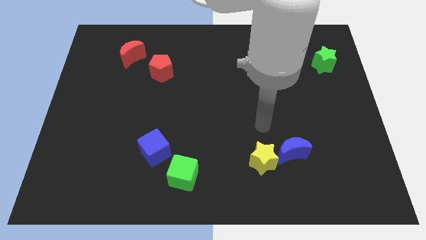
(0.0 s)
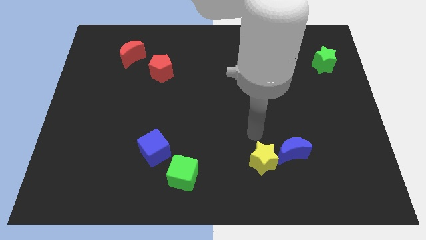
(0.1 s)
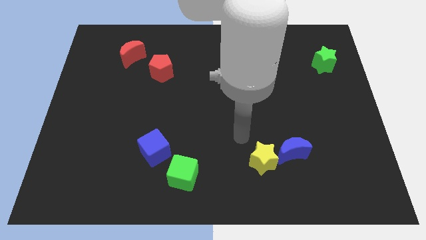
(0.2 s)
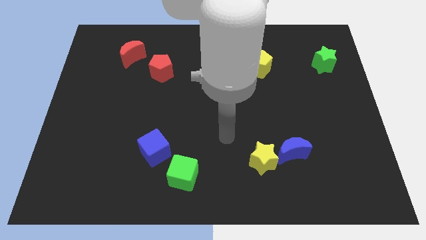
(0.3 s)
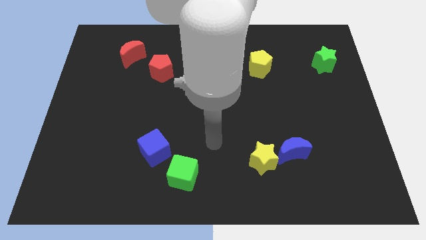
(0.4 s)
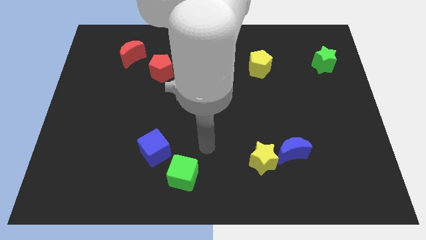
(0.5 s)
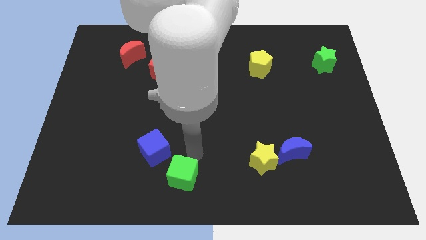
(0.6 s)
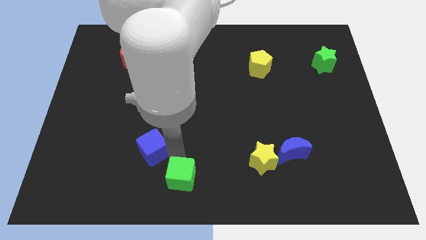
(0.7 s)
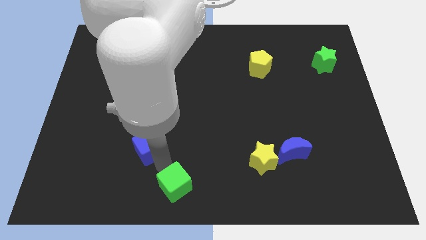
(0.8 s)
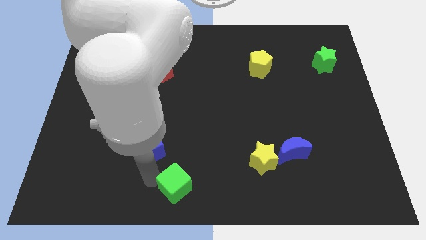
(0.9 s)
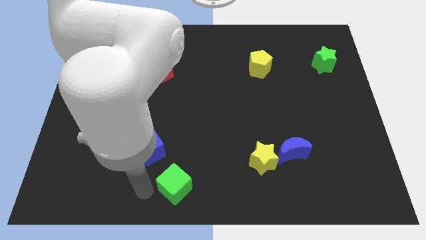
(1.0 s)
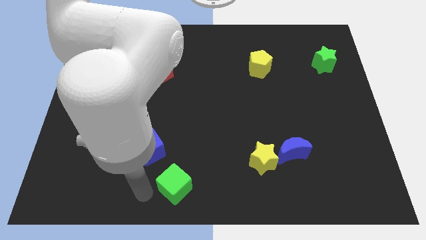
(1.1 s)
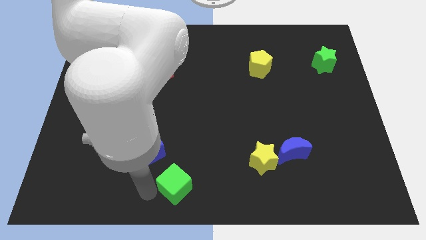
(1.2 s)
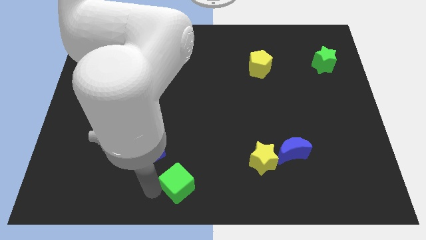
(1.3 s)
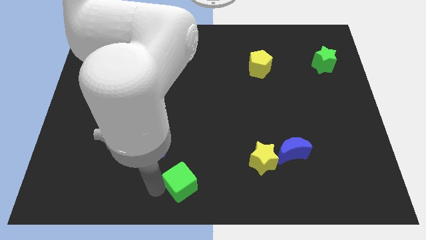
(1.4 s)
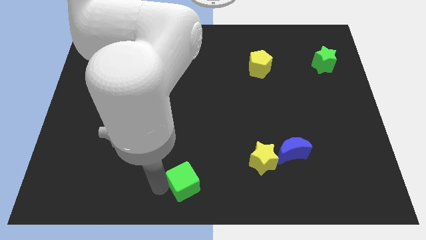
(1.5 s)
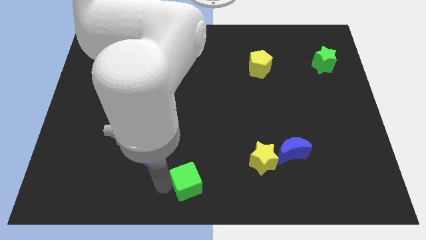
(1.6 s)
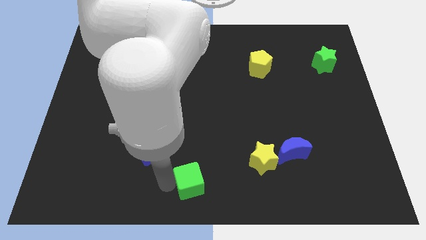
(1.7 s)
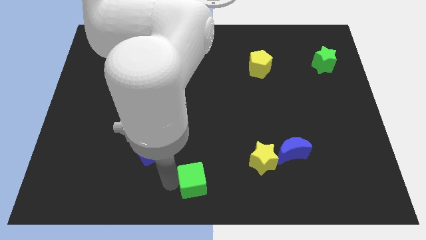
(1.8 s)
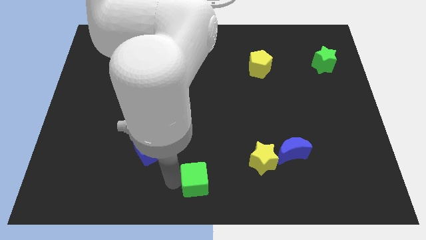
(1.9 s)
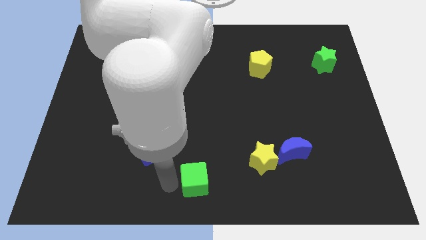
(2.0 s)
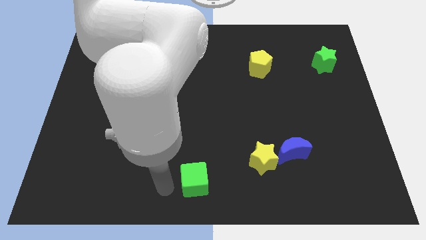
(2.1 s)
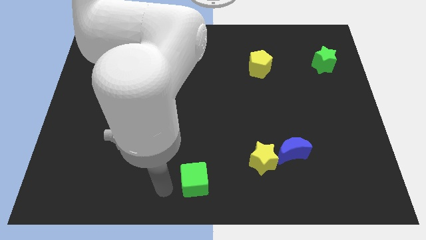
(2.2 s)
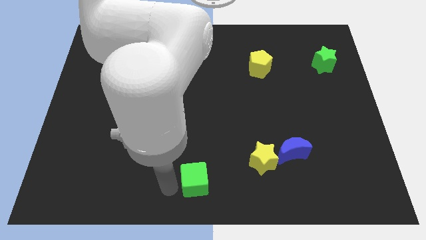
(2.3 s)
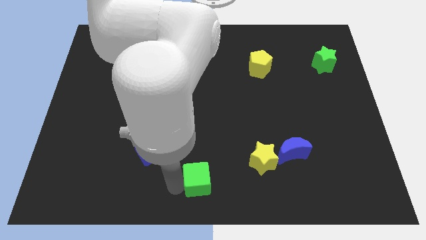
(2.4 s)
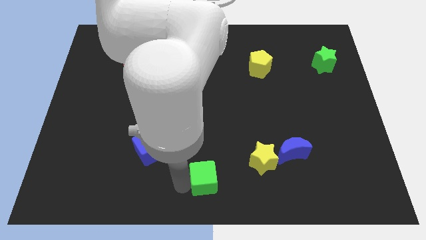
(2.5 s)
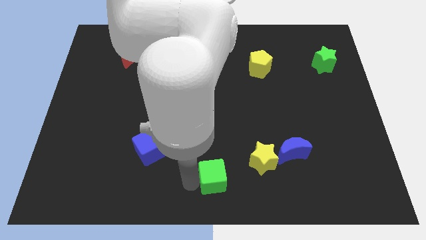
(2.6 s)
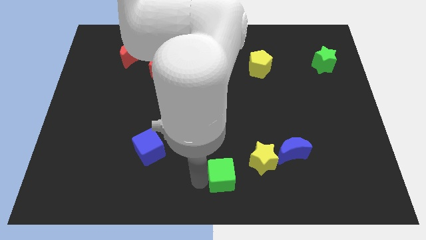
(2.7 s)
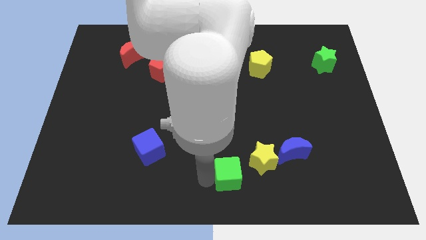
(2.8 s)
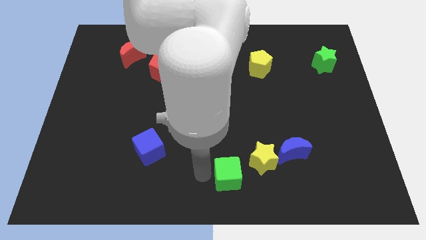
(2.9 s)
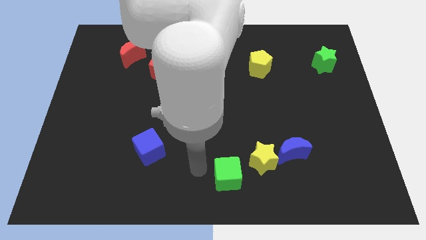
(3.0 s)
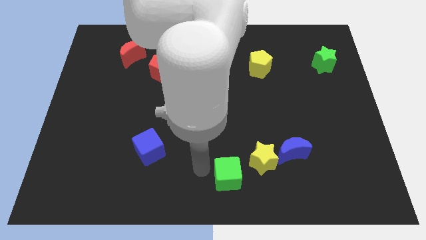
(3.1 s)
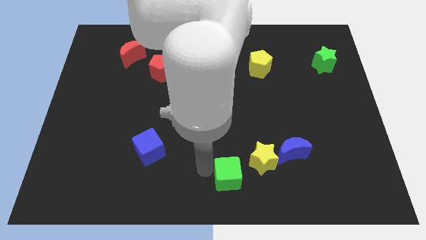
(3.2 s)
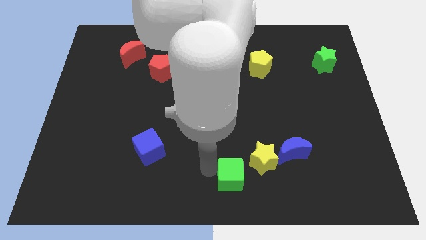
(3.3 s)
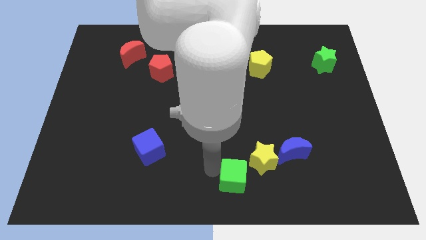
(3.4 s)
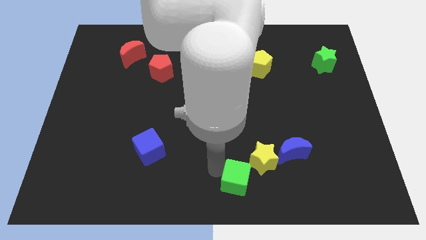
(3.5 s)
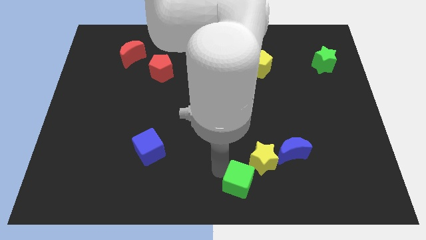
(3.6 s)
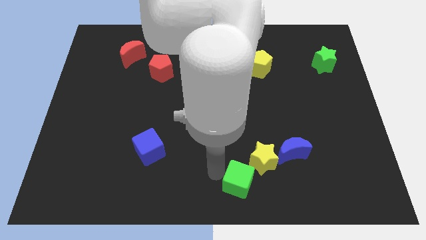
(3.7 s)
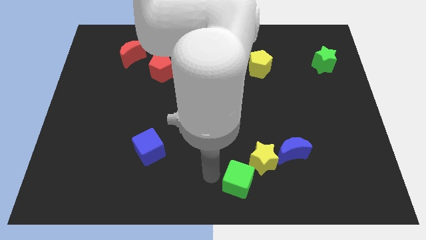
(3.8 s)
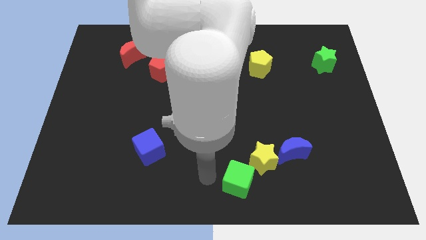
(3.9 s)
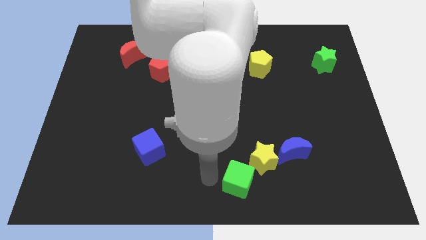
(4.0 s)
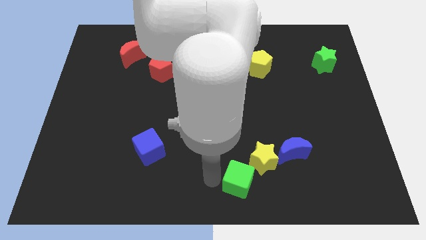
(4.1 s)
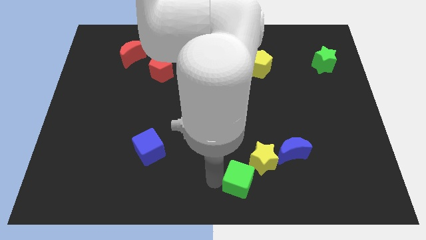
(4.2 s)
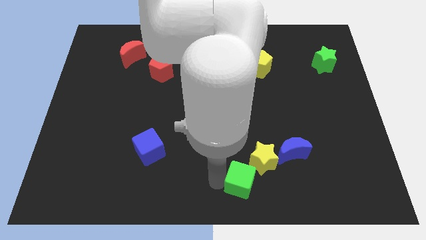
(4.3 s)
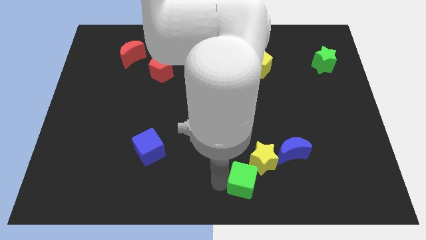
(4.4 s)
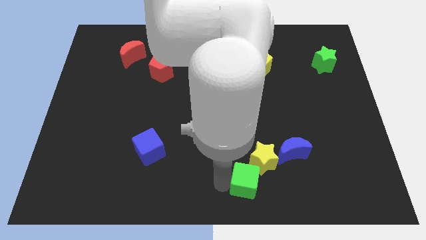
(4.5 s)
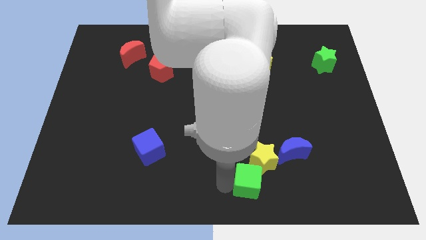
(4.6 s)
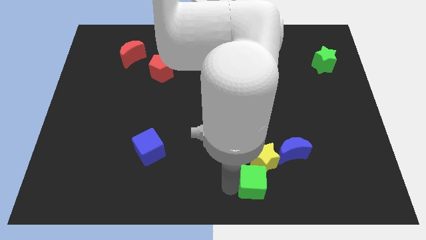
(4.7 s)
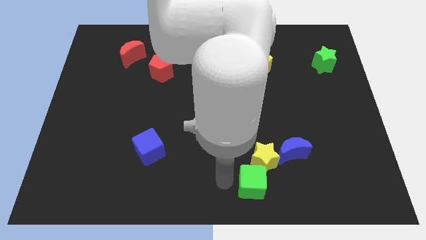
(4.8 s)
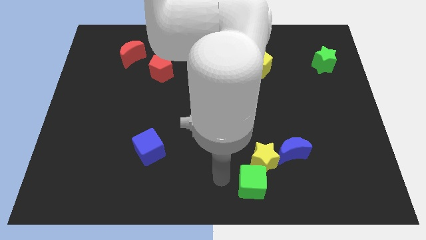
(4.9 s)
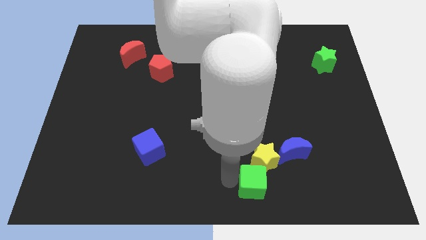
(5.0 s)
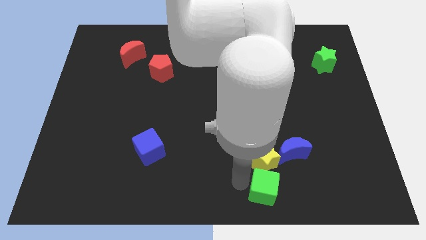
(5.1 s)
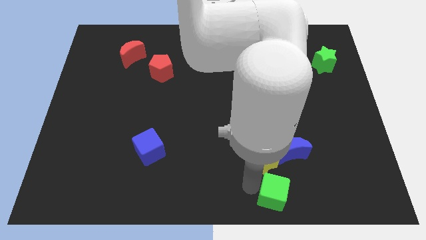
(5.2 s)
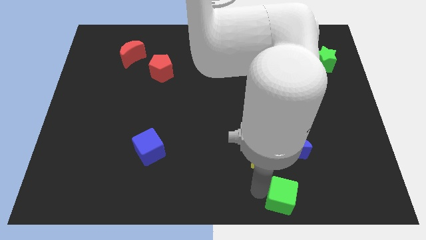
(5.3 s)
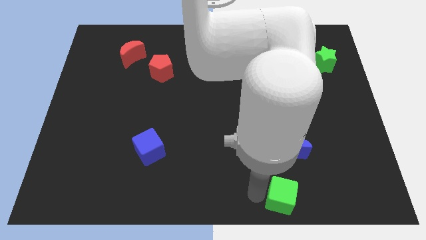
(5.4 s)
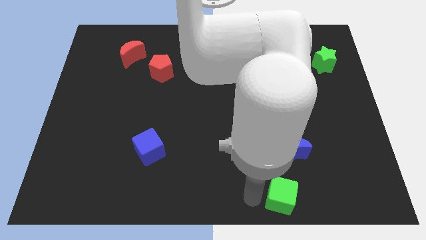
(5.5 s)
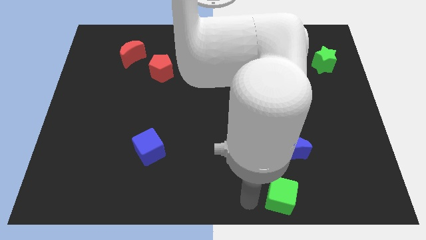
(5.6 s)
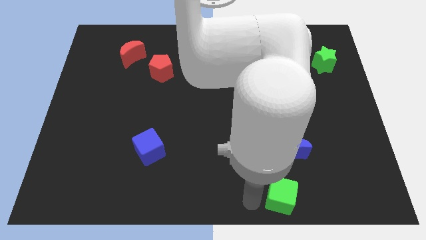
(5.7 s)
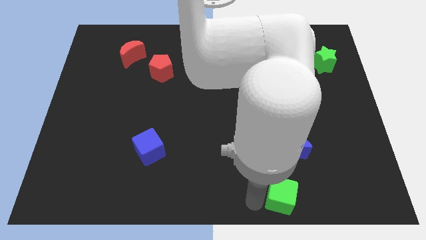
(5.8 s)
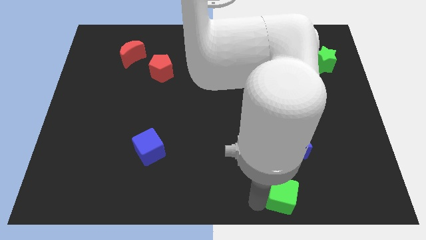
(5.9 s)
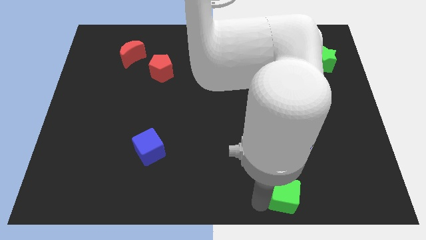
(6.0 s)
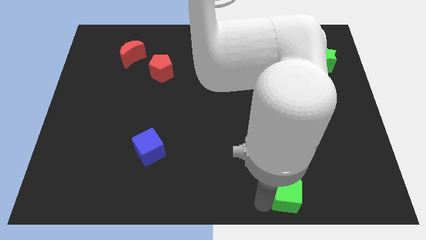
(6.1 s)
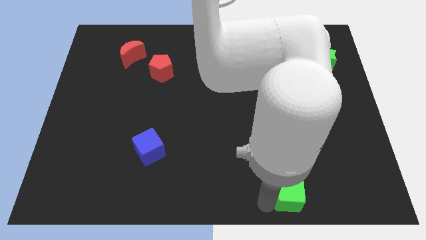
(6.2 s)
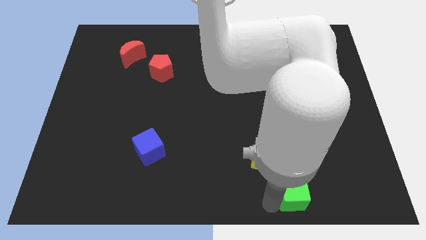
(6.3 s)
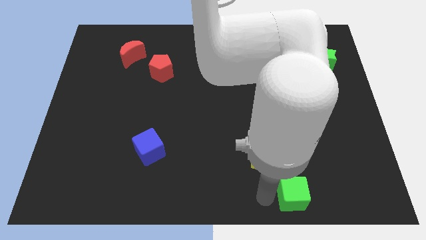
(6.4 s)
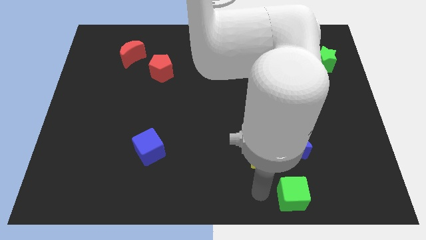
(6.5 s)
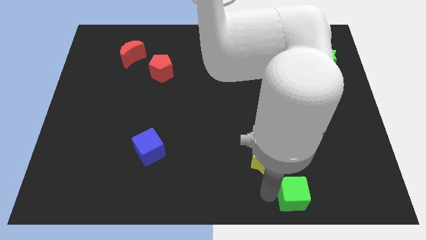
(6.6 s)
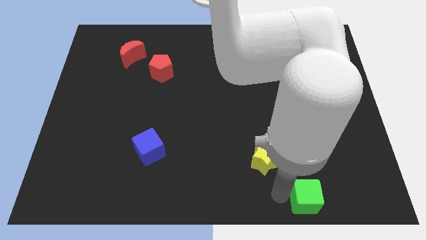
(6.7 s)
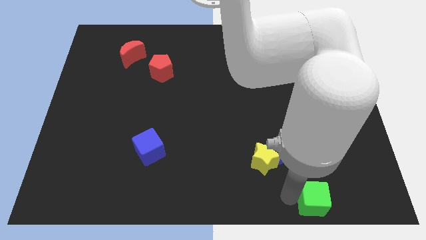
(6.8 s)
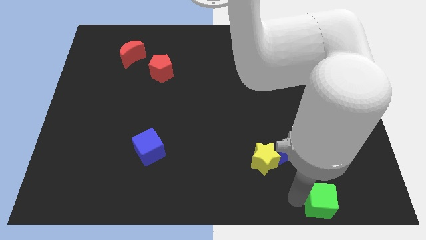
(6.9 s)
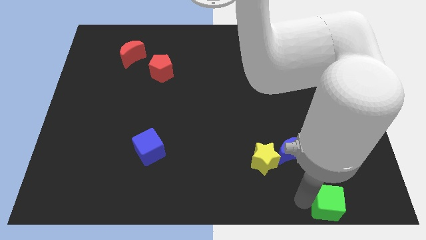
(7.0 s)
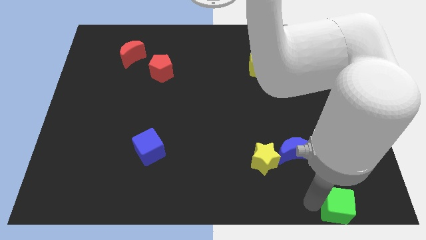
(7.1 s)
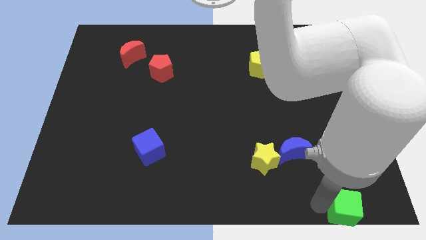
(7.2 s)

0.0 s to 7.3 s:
move the green cube to the bottom right
